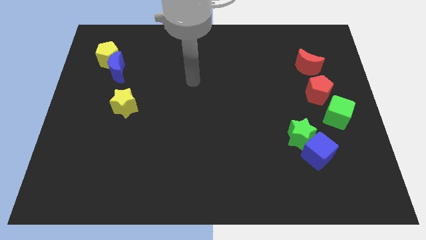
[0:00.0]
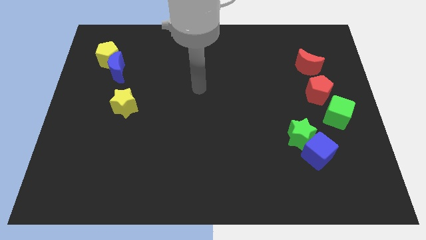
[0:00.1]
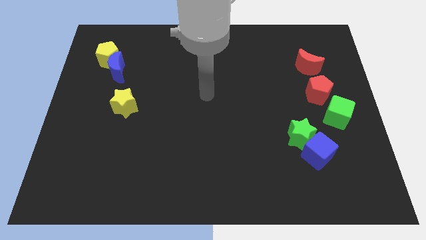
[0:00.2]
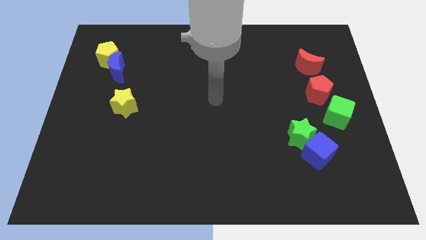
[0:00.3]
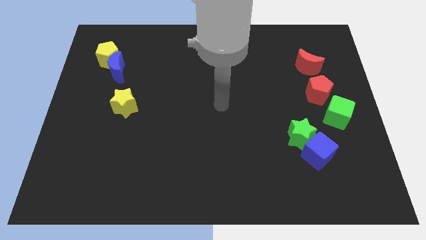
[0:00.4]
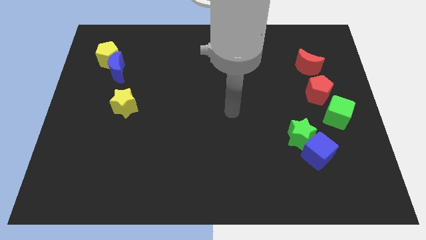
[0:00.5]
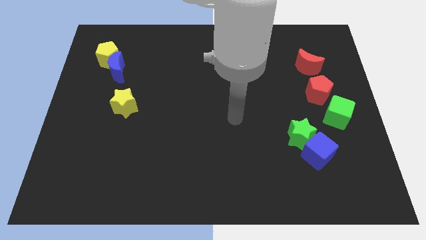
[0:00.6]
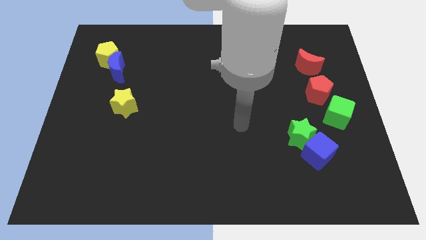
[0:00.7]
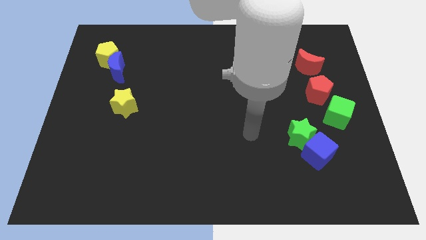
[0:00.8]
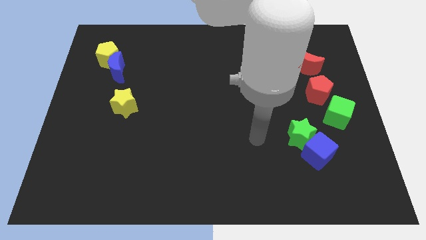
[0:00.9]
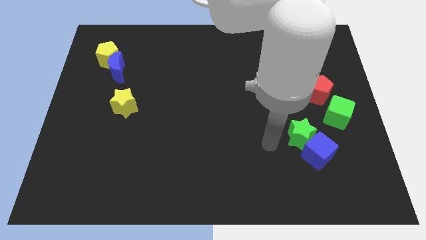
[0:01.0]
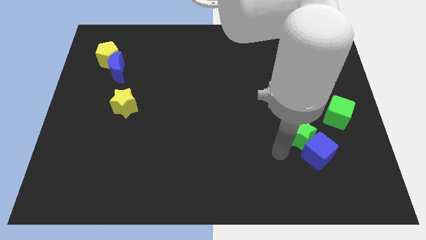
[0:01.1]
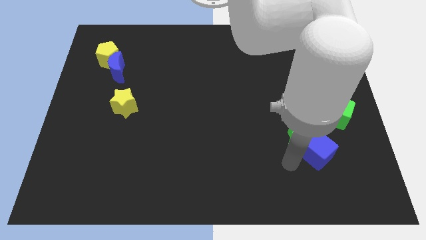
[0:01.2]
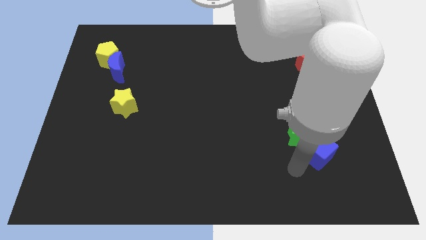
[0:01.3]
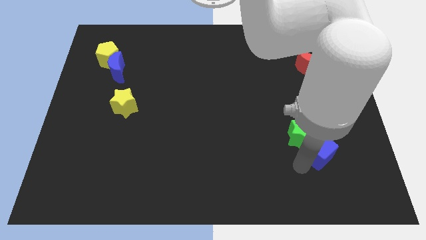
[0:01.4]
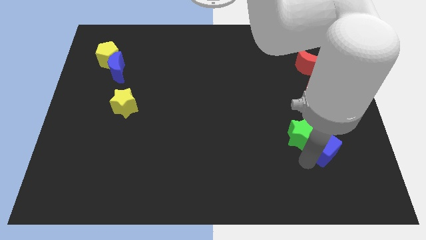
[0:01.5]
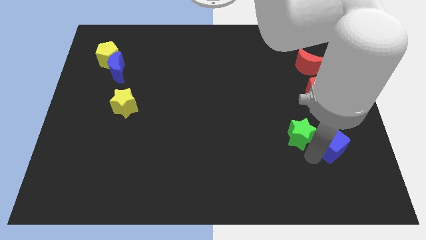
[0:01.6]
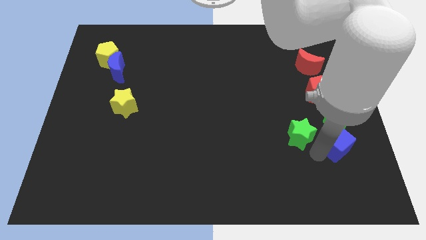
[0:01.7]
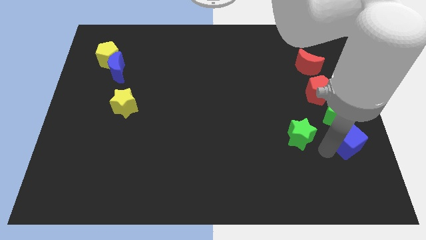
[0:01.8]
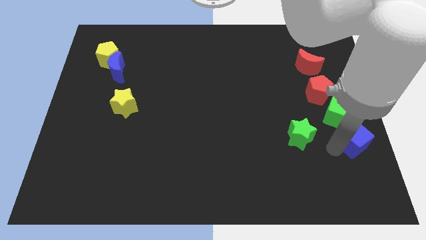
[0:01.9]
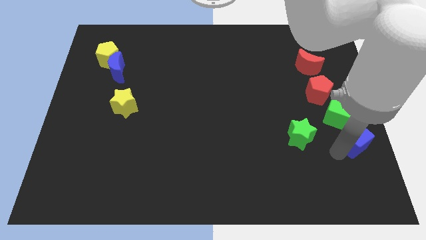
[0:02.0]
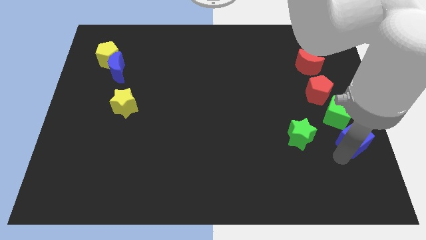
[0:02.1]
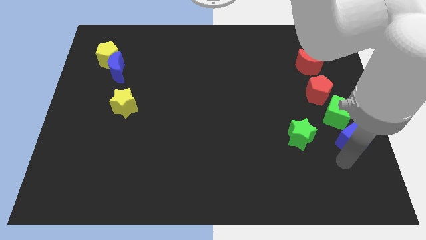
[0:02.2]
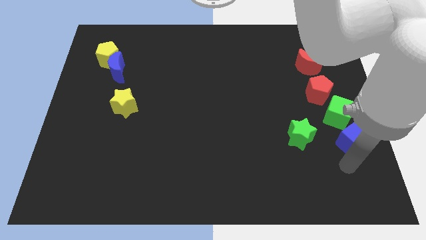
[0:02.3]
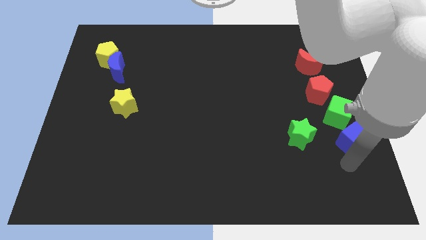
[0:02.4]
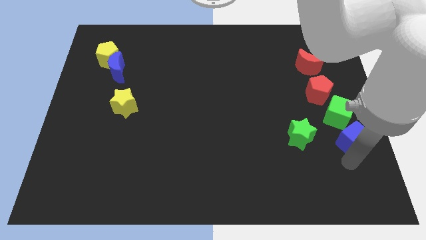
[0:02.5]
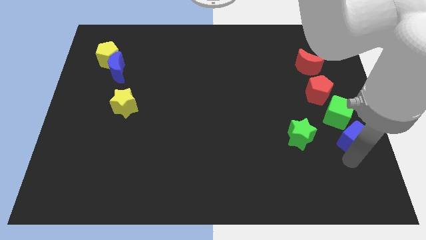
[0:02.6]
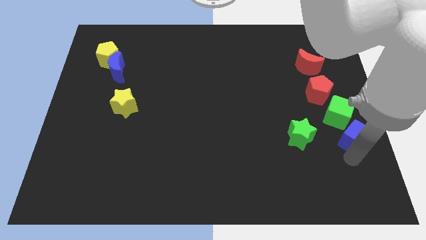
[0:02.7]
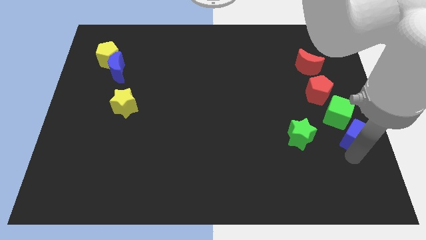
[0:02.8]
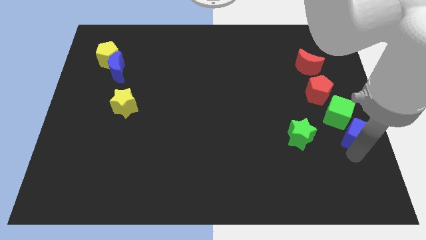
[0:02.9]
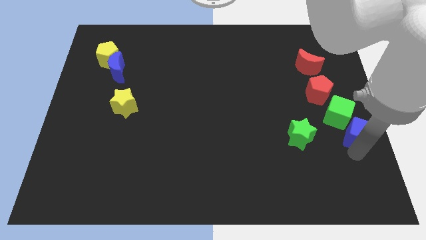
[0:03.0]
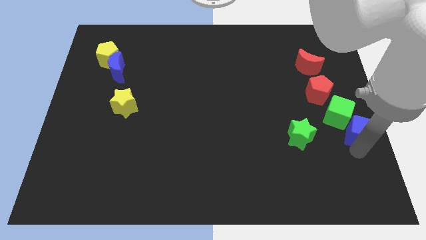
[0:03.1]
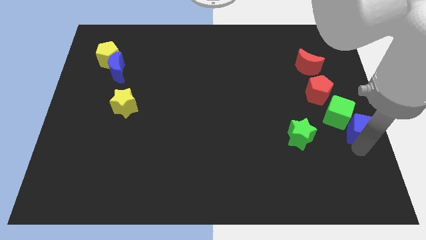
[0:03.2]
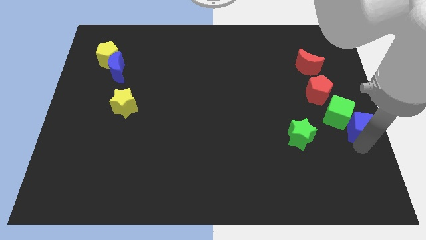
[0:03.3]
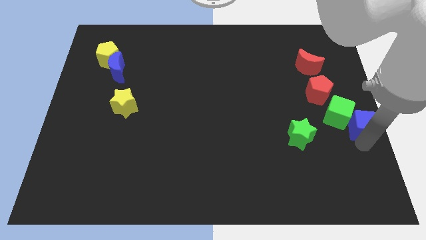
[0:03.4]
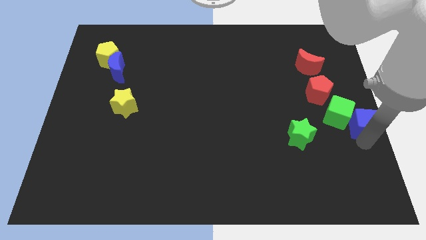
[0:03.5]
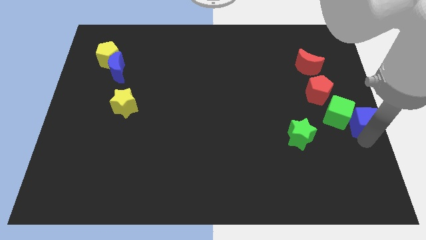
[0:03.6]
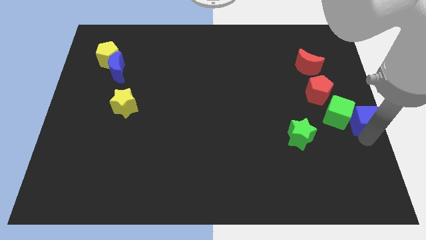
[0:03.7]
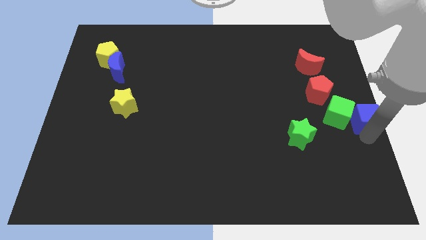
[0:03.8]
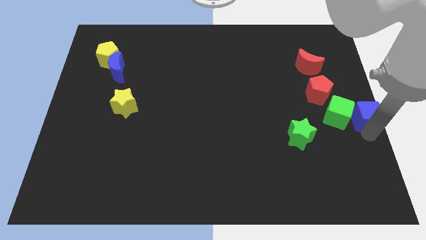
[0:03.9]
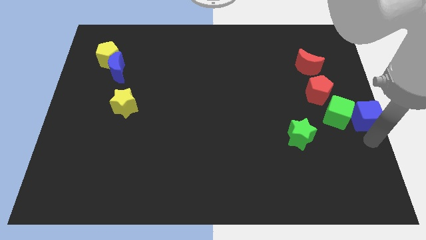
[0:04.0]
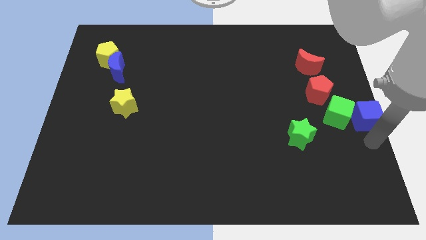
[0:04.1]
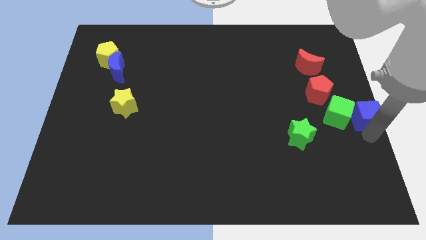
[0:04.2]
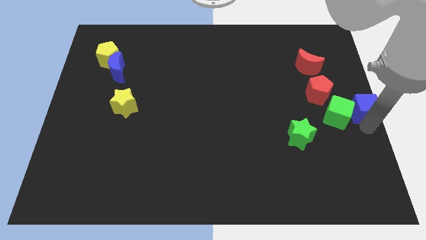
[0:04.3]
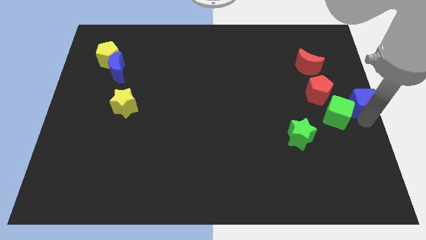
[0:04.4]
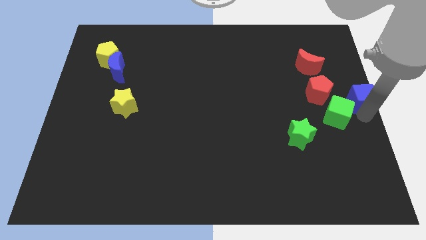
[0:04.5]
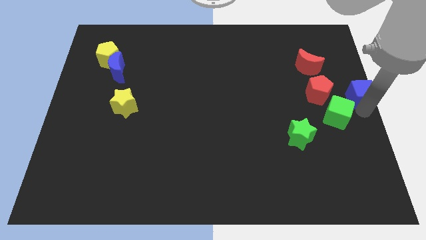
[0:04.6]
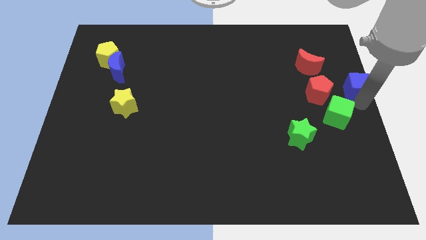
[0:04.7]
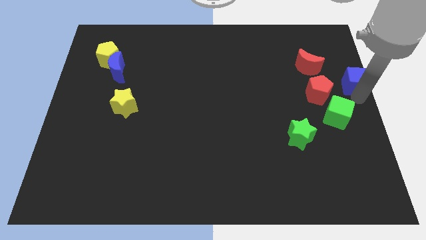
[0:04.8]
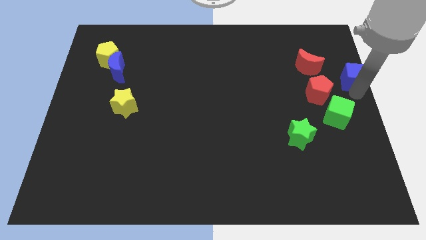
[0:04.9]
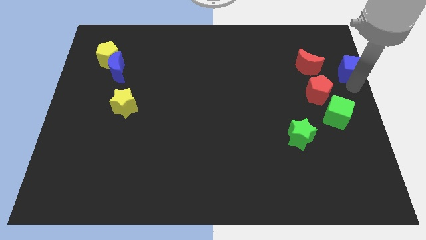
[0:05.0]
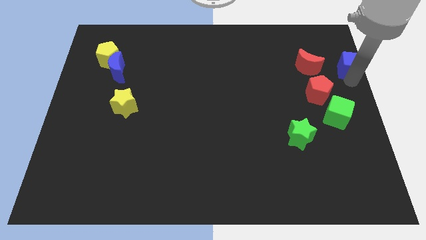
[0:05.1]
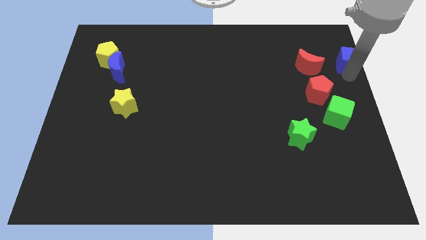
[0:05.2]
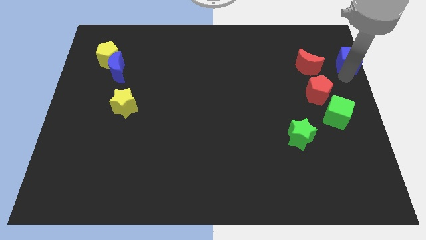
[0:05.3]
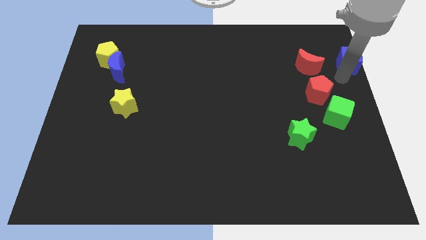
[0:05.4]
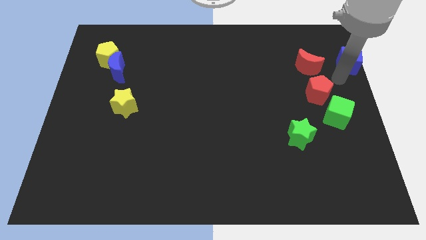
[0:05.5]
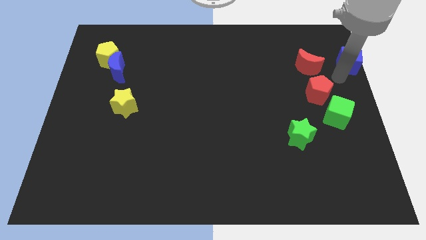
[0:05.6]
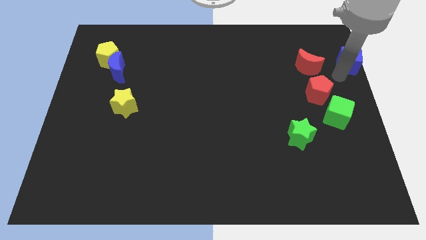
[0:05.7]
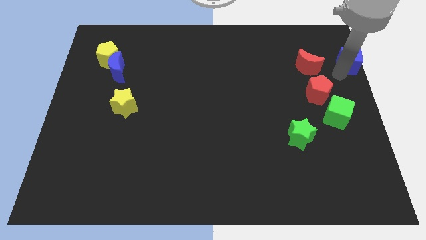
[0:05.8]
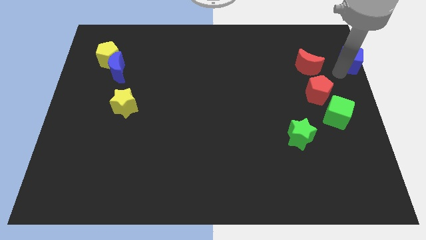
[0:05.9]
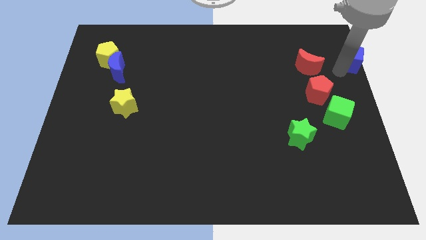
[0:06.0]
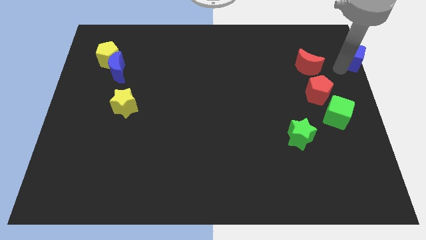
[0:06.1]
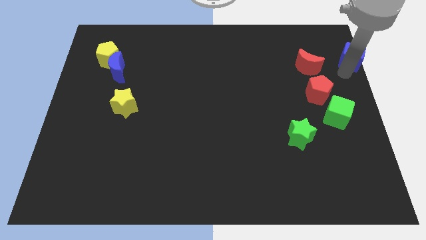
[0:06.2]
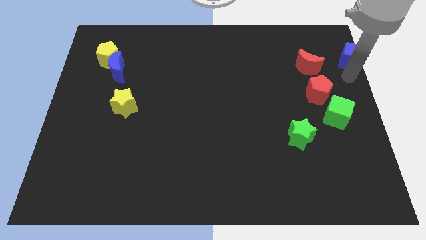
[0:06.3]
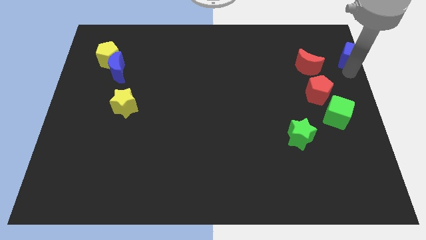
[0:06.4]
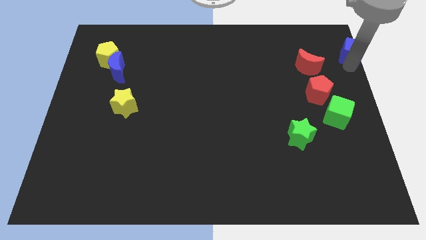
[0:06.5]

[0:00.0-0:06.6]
put the blue cube to the upper right corner
